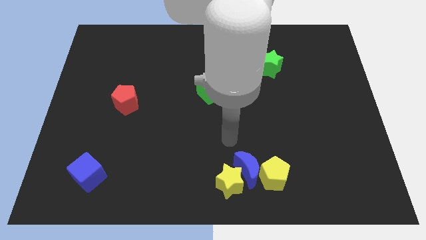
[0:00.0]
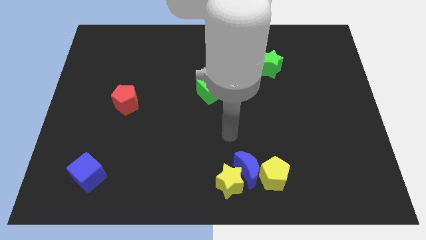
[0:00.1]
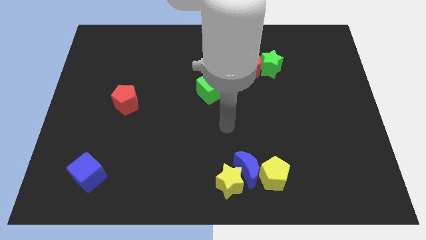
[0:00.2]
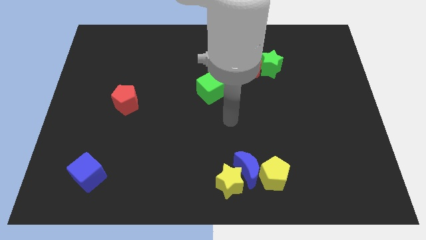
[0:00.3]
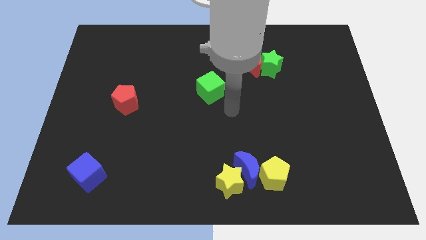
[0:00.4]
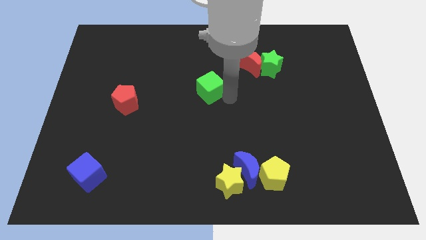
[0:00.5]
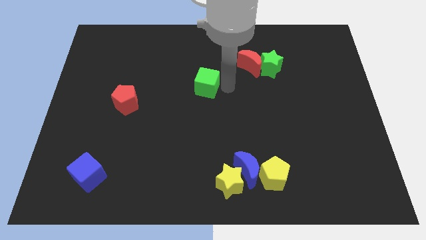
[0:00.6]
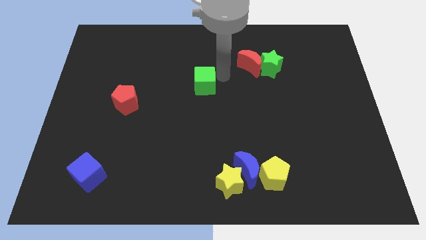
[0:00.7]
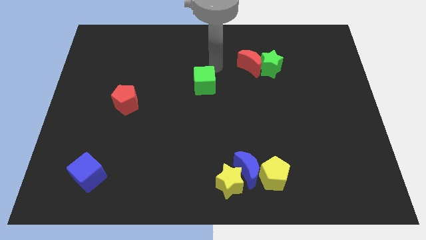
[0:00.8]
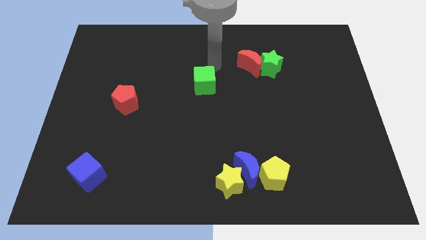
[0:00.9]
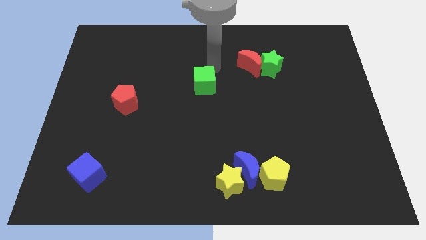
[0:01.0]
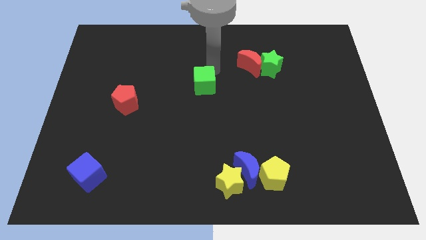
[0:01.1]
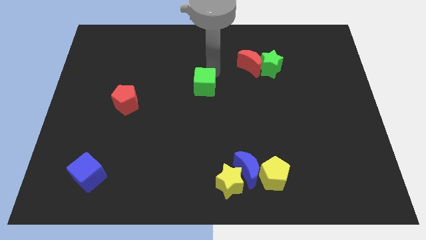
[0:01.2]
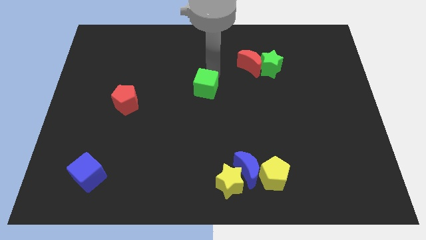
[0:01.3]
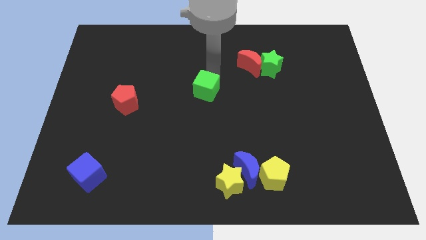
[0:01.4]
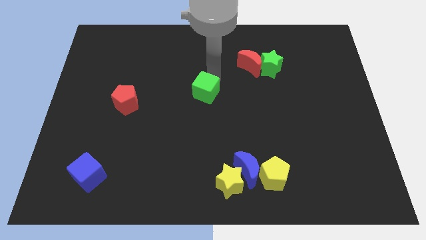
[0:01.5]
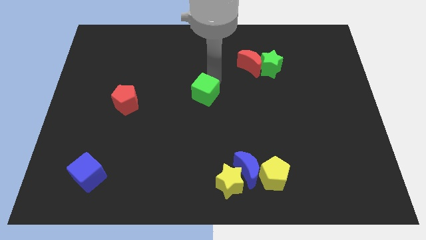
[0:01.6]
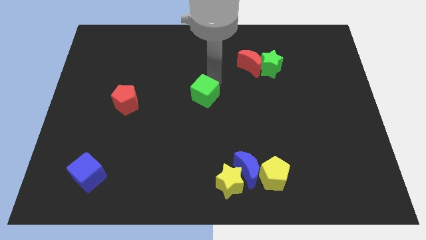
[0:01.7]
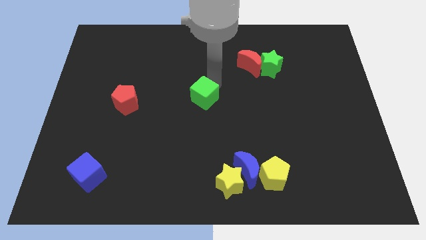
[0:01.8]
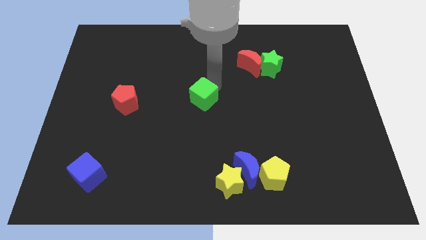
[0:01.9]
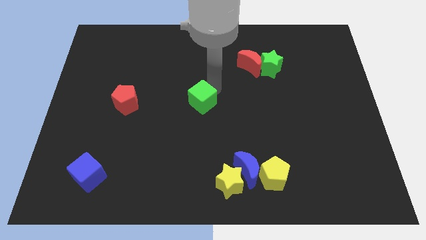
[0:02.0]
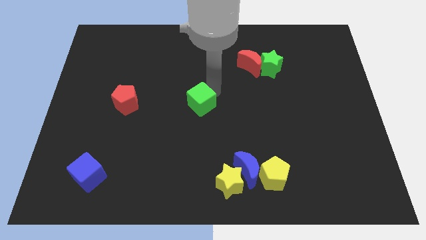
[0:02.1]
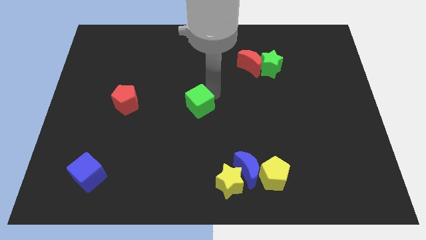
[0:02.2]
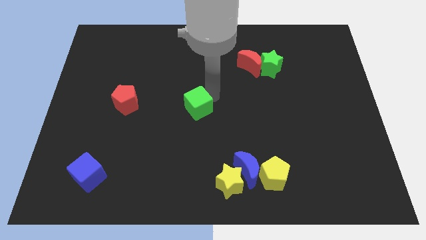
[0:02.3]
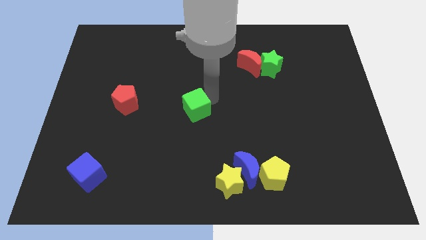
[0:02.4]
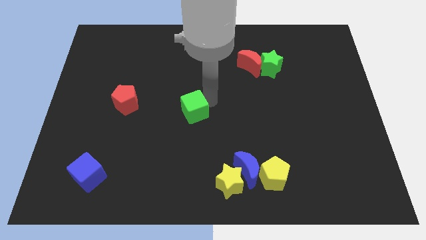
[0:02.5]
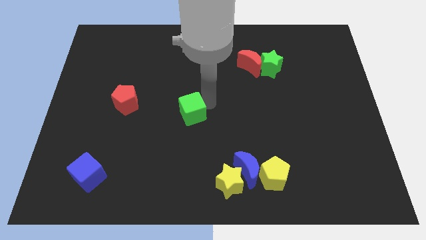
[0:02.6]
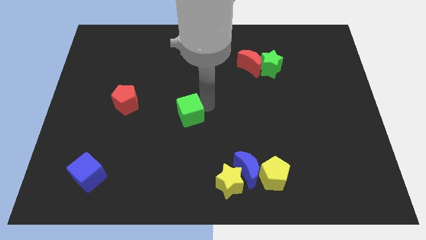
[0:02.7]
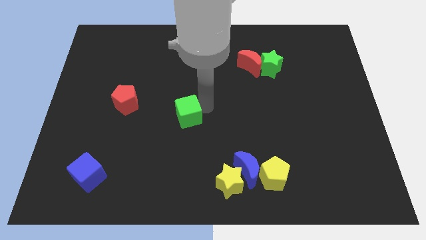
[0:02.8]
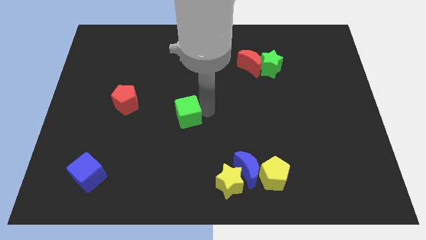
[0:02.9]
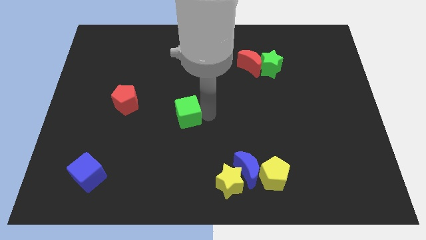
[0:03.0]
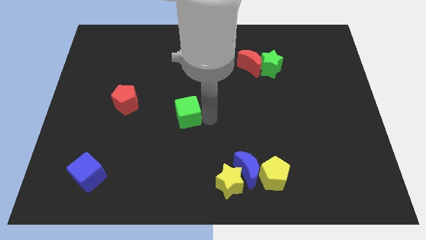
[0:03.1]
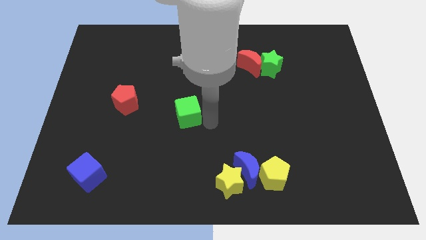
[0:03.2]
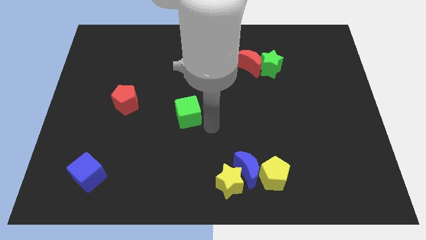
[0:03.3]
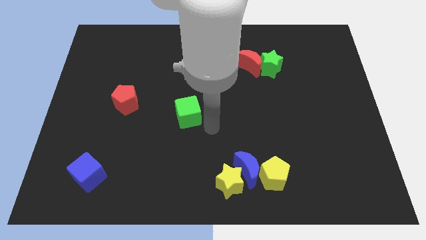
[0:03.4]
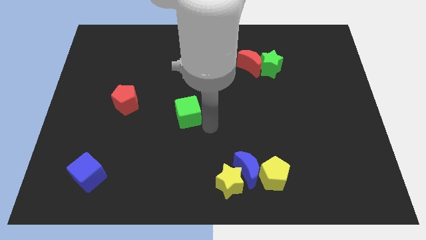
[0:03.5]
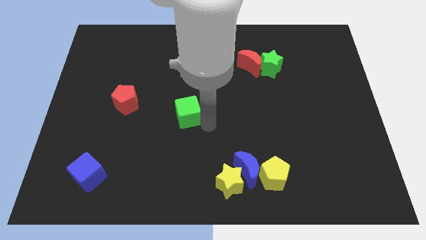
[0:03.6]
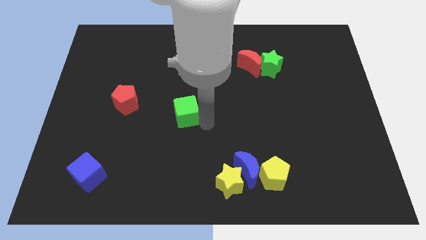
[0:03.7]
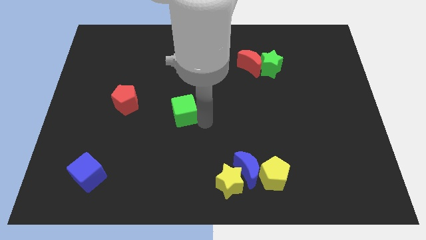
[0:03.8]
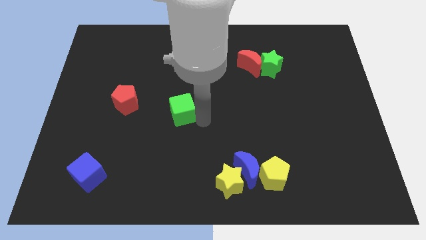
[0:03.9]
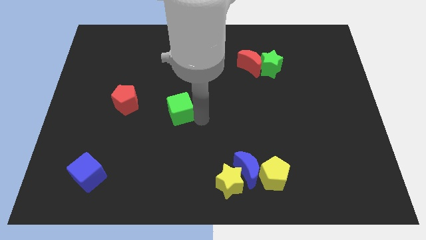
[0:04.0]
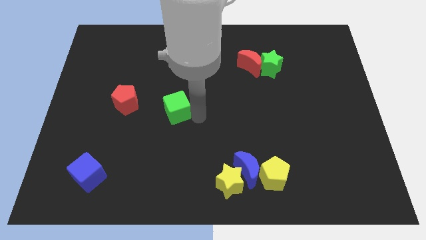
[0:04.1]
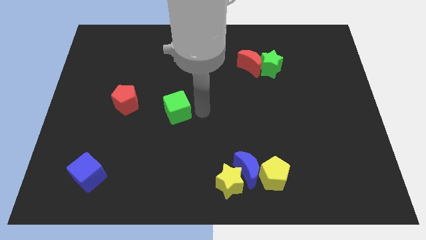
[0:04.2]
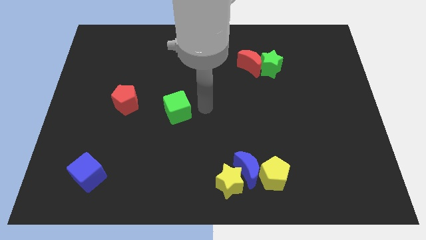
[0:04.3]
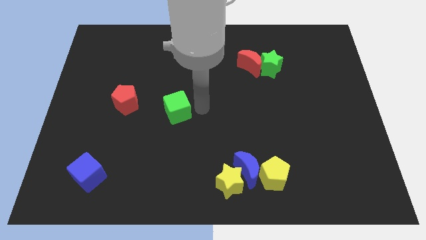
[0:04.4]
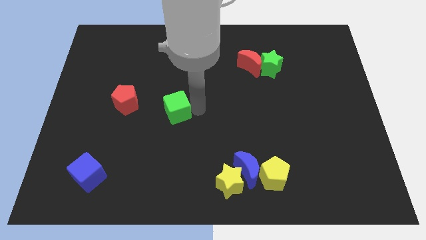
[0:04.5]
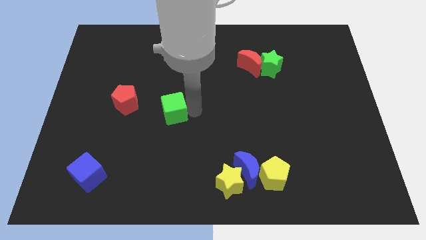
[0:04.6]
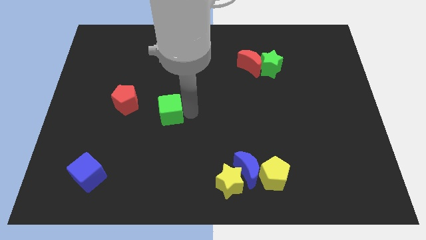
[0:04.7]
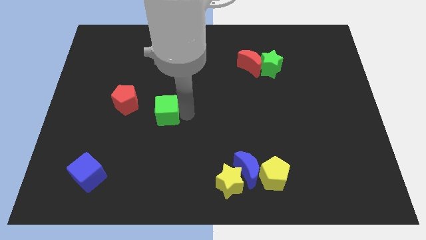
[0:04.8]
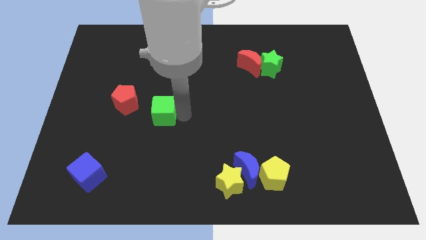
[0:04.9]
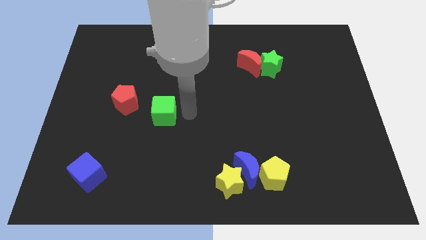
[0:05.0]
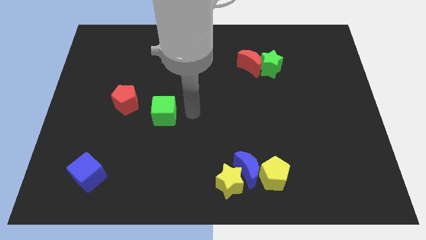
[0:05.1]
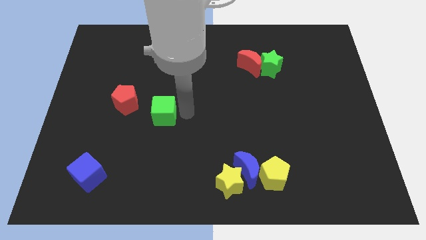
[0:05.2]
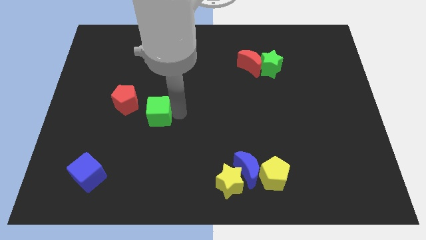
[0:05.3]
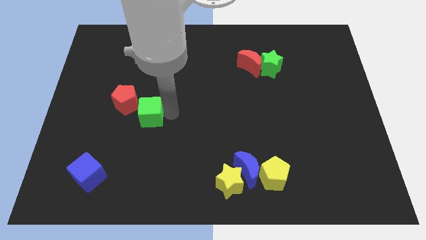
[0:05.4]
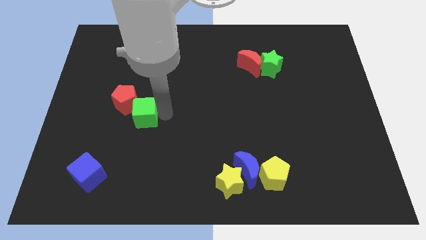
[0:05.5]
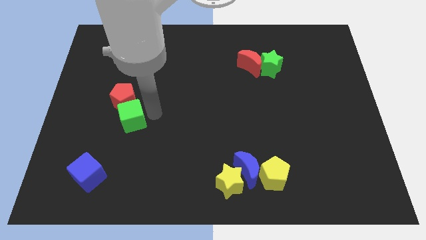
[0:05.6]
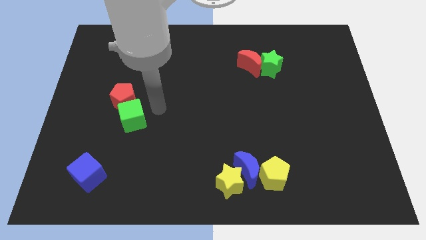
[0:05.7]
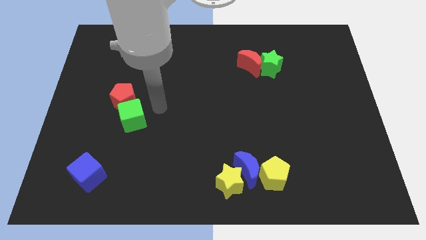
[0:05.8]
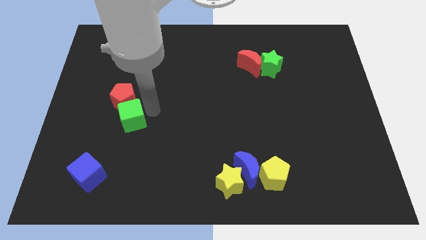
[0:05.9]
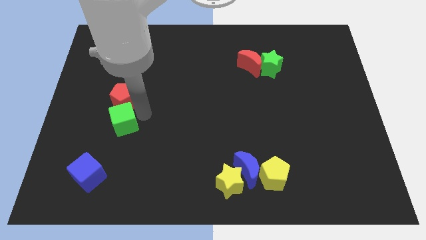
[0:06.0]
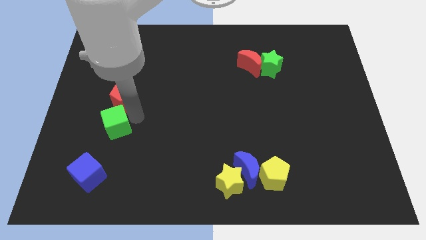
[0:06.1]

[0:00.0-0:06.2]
put the green cube to the top side of the blue cube

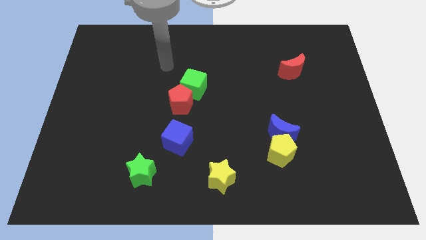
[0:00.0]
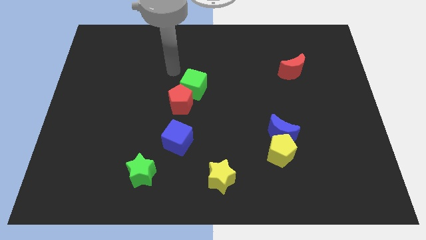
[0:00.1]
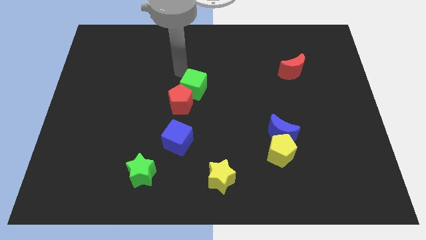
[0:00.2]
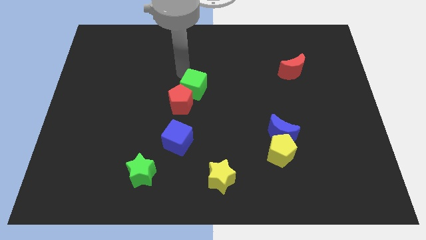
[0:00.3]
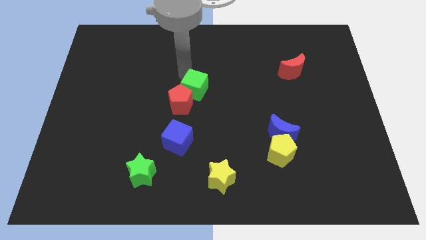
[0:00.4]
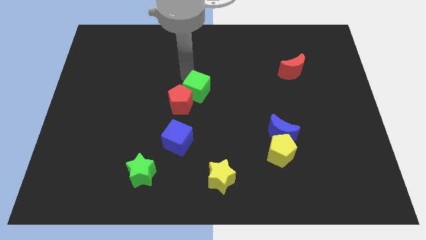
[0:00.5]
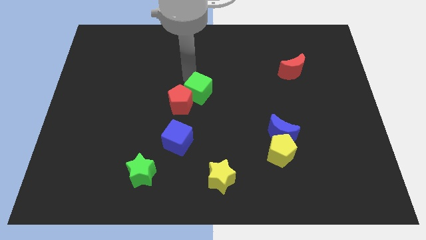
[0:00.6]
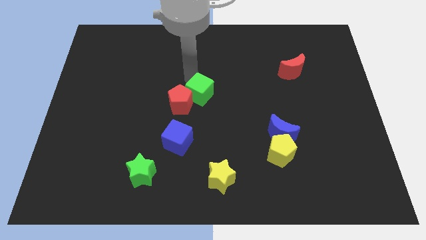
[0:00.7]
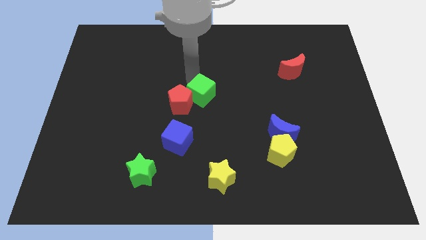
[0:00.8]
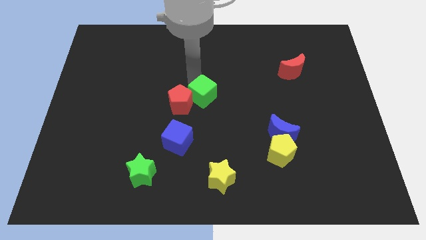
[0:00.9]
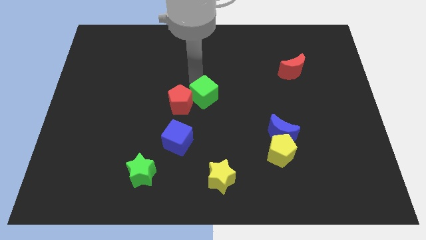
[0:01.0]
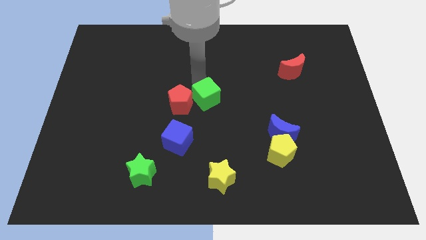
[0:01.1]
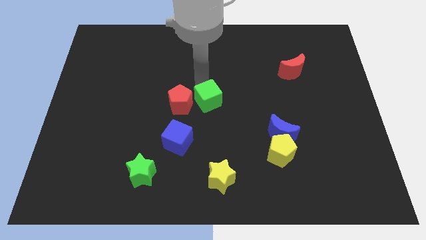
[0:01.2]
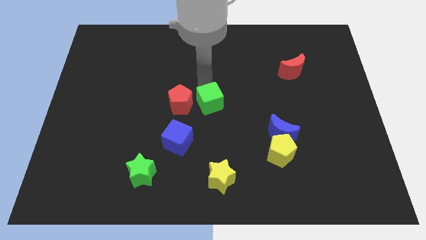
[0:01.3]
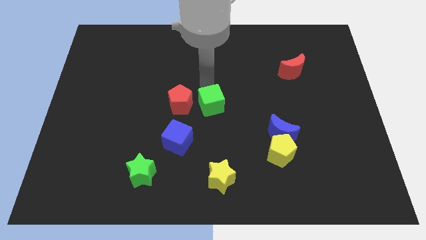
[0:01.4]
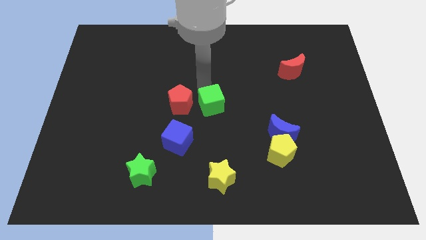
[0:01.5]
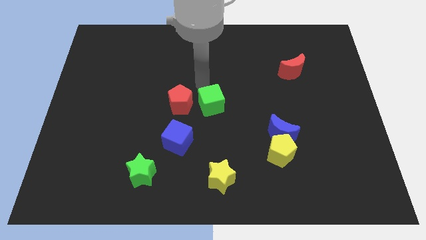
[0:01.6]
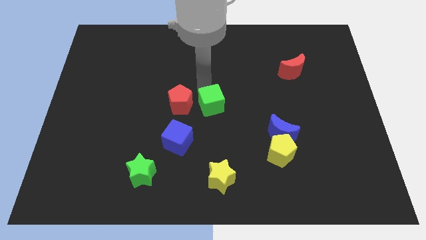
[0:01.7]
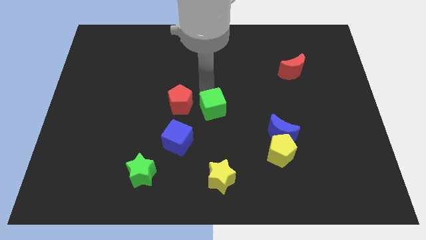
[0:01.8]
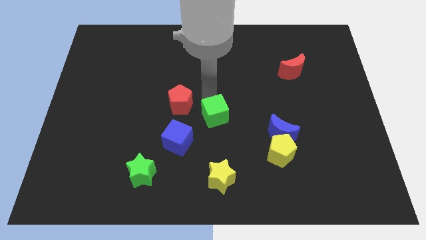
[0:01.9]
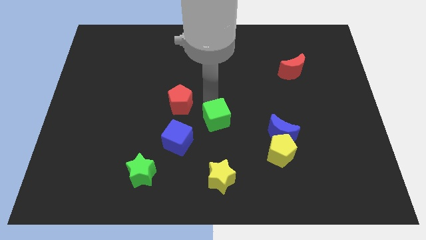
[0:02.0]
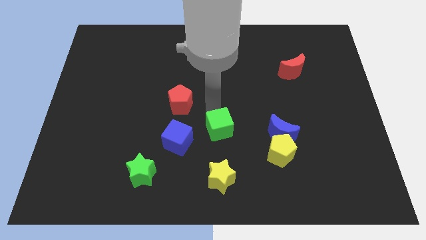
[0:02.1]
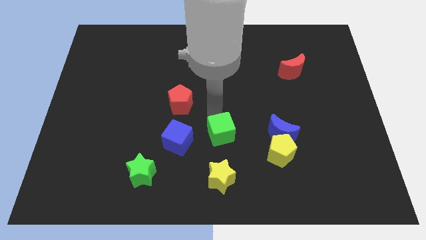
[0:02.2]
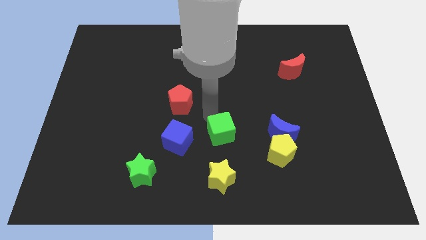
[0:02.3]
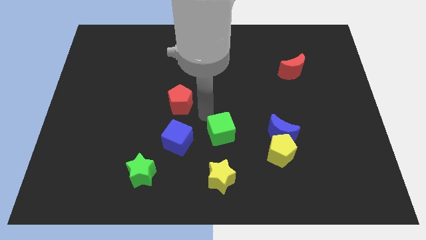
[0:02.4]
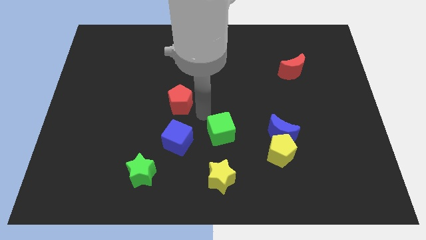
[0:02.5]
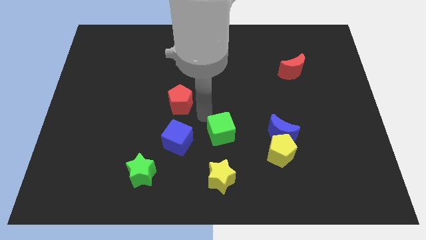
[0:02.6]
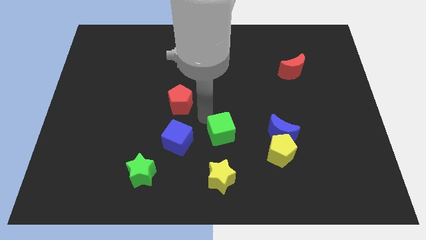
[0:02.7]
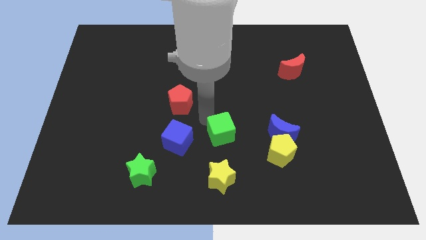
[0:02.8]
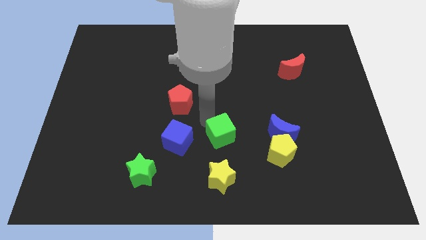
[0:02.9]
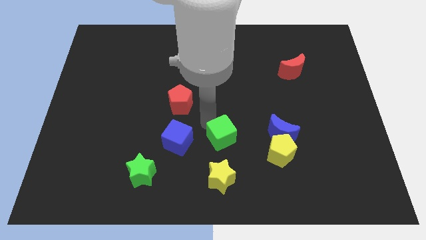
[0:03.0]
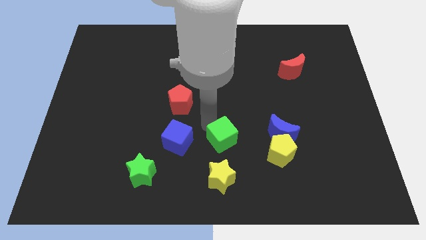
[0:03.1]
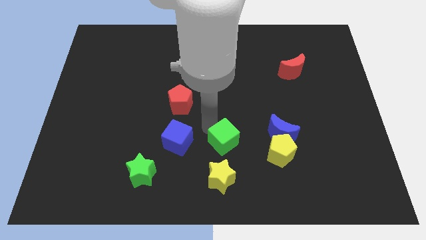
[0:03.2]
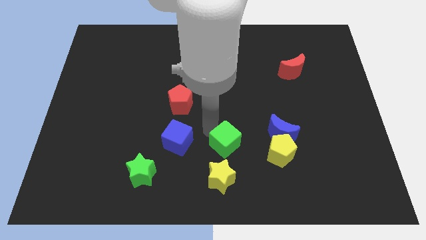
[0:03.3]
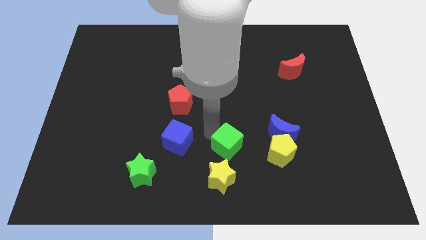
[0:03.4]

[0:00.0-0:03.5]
put the green cube to the top right of the yellow star
